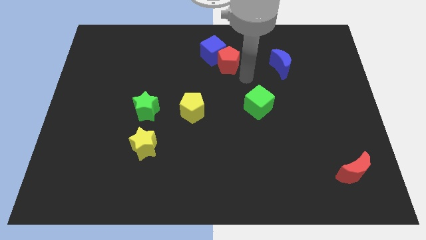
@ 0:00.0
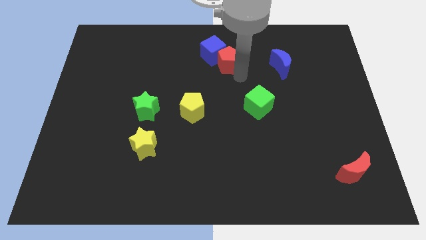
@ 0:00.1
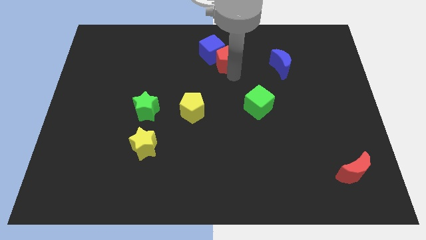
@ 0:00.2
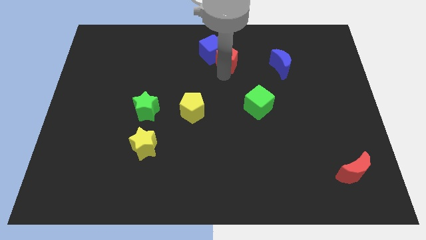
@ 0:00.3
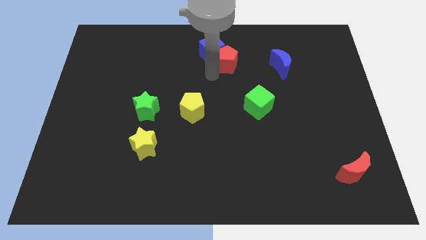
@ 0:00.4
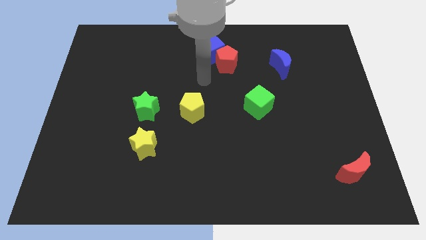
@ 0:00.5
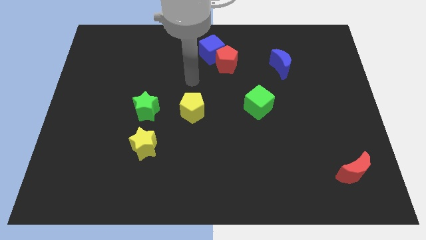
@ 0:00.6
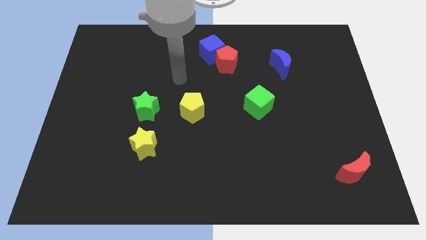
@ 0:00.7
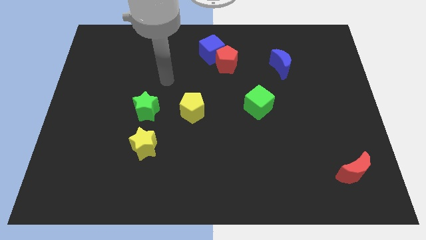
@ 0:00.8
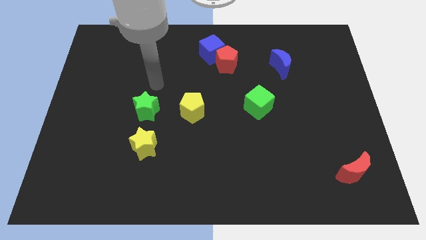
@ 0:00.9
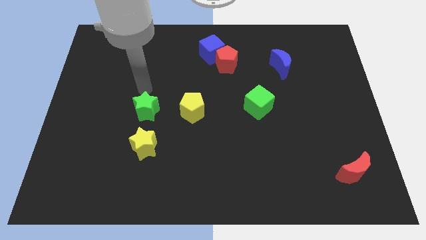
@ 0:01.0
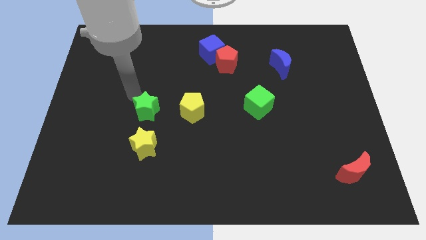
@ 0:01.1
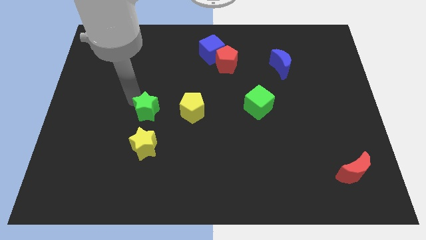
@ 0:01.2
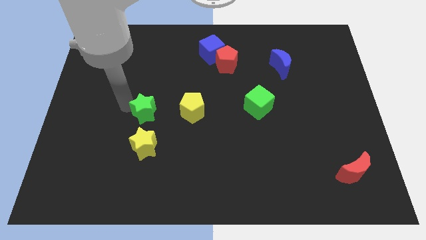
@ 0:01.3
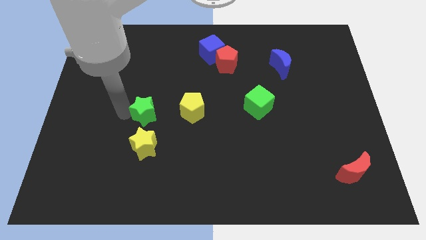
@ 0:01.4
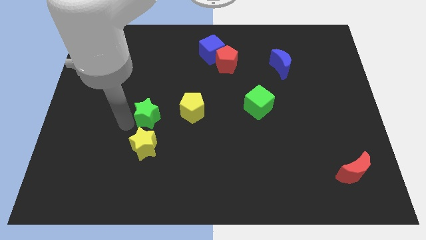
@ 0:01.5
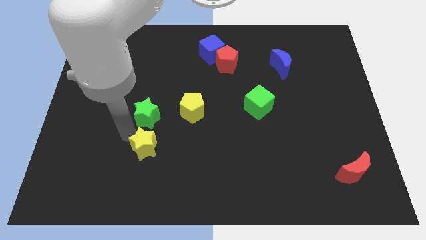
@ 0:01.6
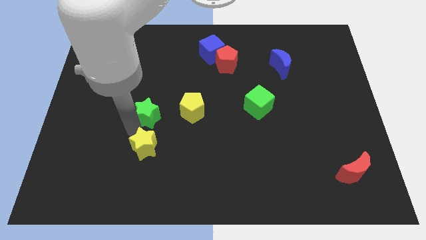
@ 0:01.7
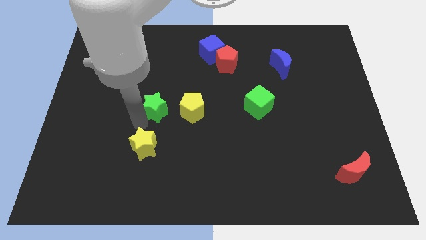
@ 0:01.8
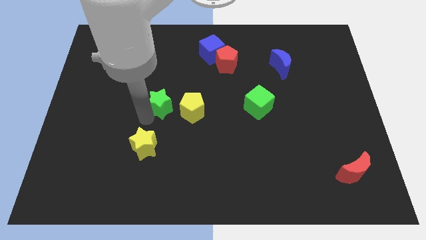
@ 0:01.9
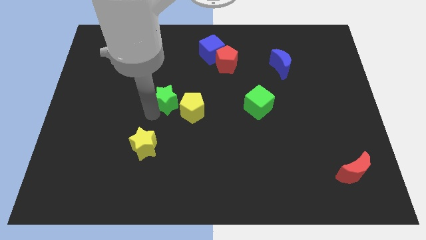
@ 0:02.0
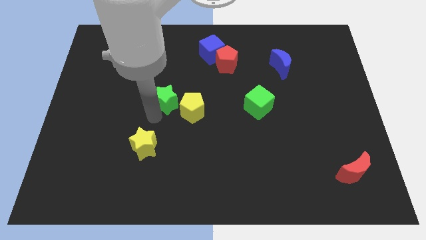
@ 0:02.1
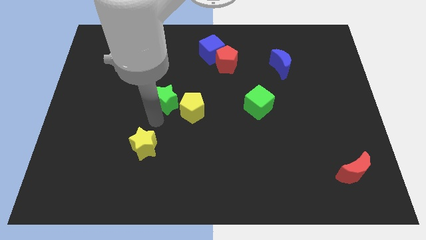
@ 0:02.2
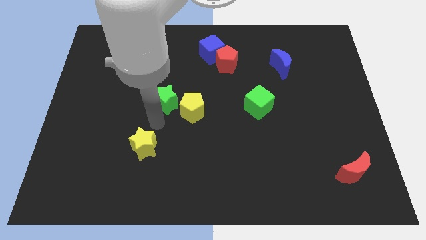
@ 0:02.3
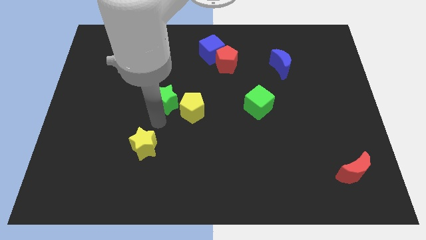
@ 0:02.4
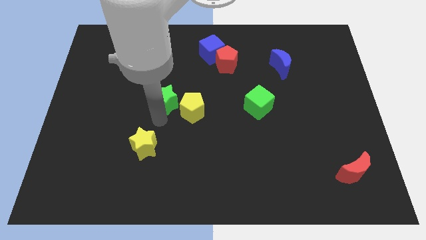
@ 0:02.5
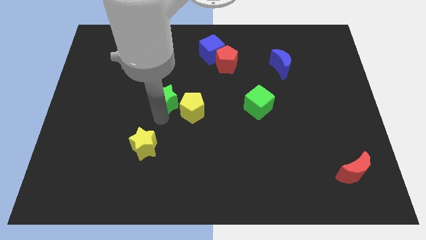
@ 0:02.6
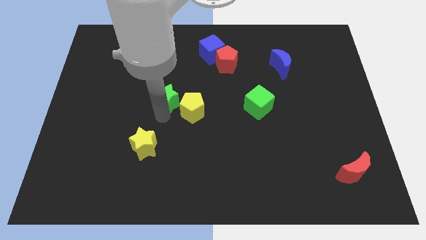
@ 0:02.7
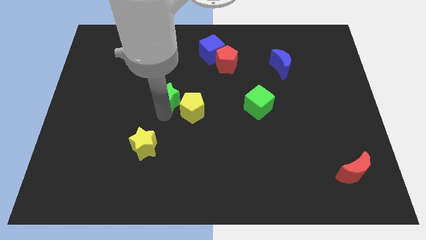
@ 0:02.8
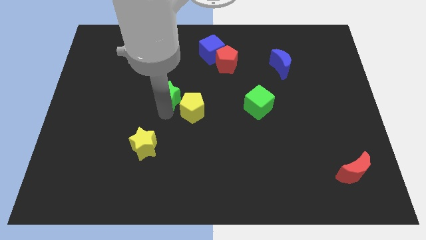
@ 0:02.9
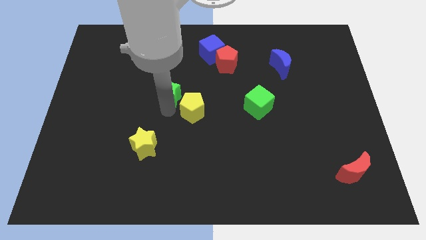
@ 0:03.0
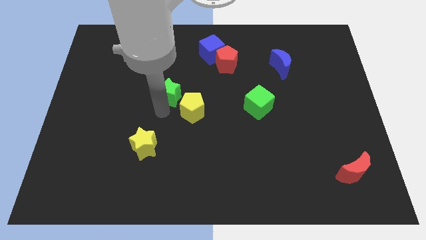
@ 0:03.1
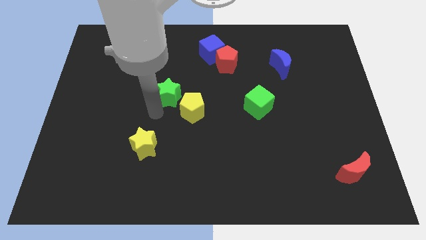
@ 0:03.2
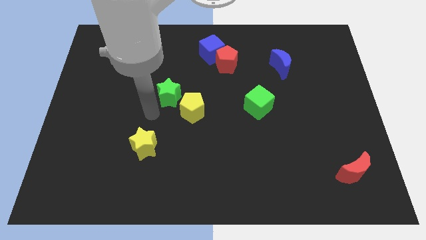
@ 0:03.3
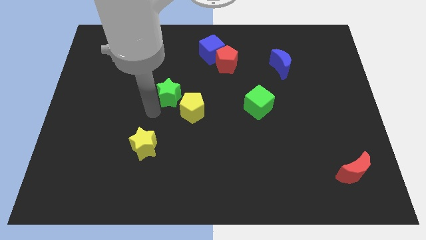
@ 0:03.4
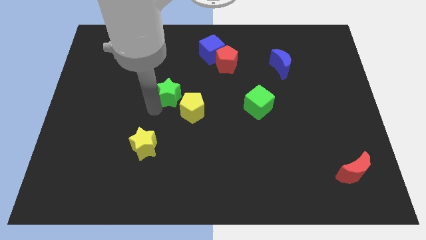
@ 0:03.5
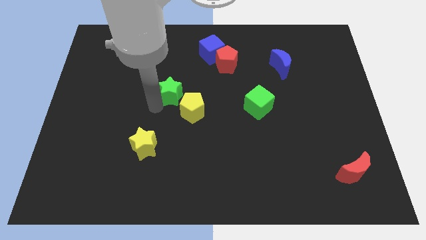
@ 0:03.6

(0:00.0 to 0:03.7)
slightly slide the green star up and right

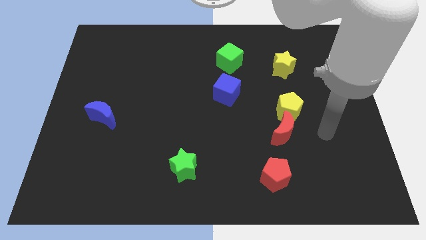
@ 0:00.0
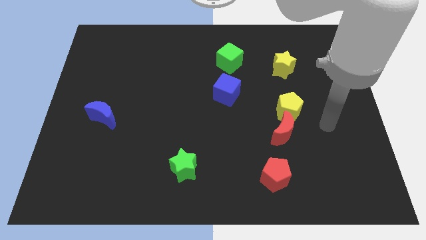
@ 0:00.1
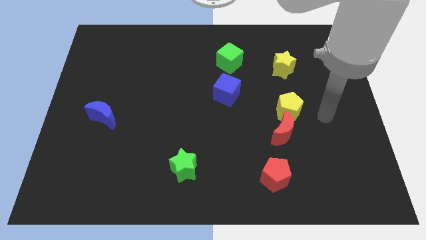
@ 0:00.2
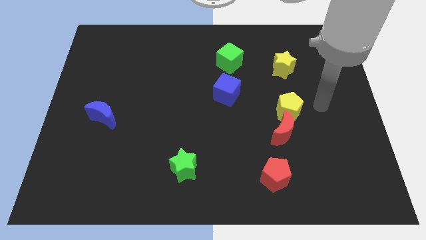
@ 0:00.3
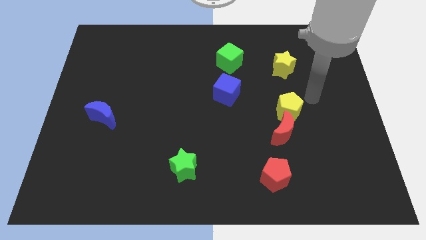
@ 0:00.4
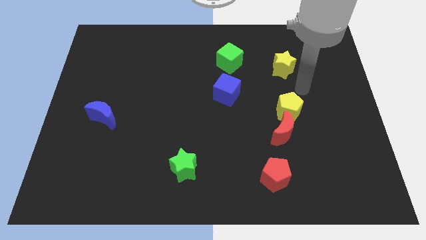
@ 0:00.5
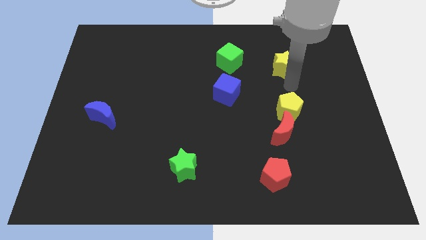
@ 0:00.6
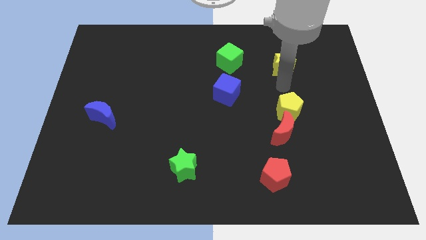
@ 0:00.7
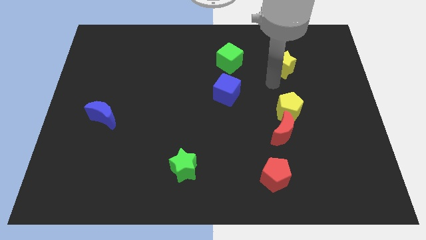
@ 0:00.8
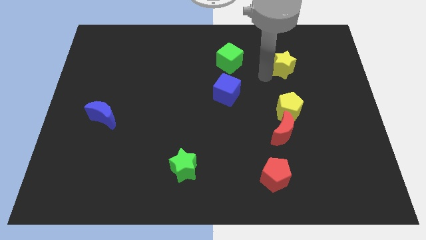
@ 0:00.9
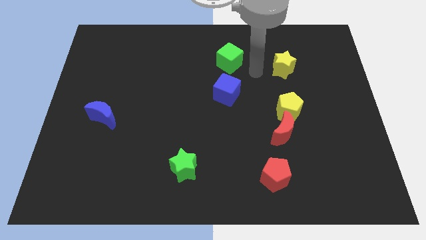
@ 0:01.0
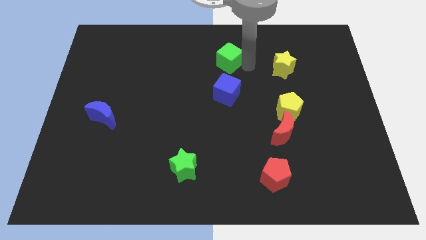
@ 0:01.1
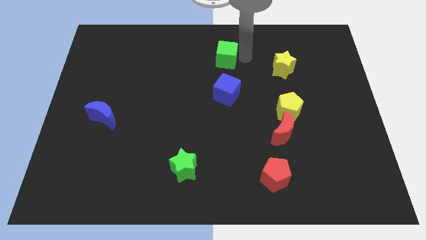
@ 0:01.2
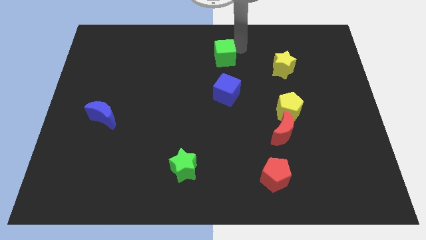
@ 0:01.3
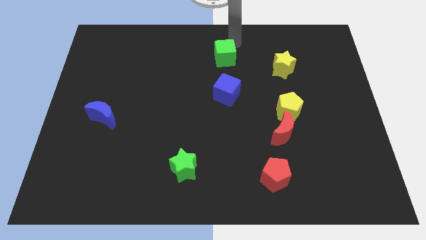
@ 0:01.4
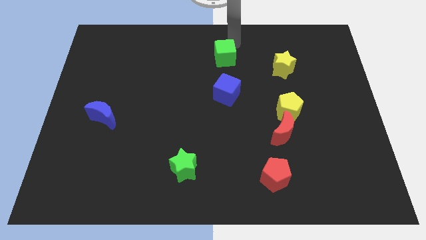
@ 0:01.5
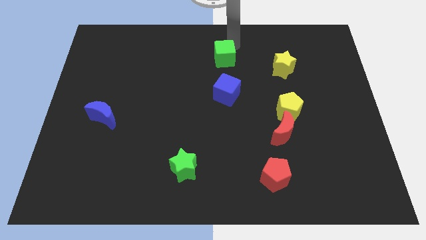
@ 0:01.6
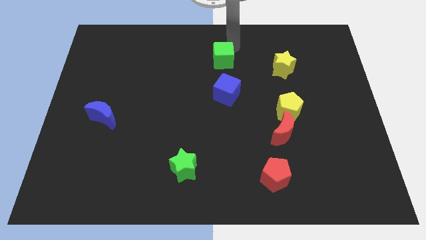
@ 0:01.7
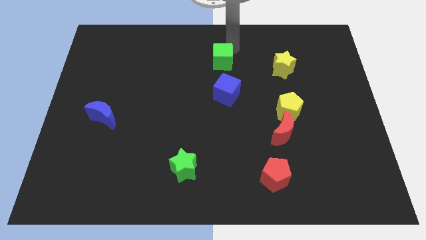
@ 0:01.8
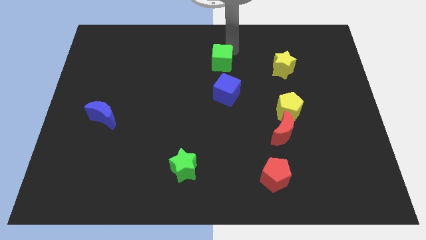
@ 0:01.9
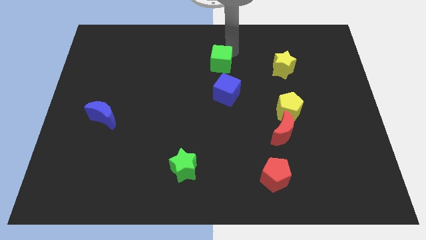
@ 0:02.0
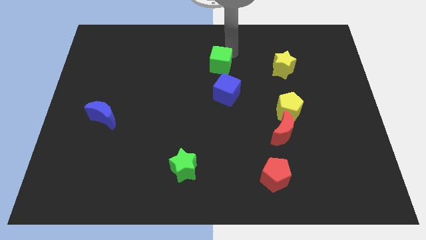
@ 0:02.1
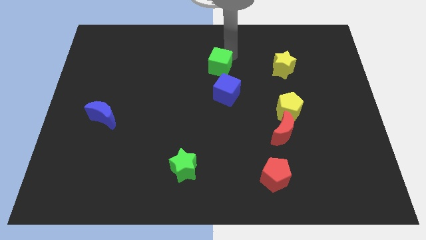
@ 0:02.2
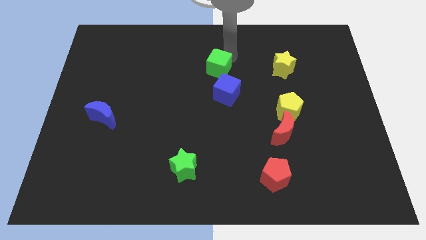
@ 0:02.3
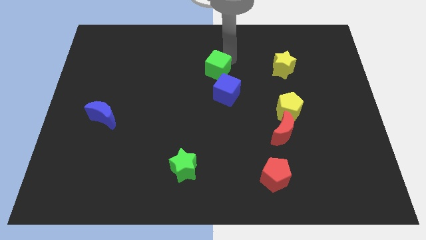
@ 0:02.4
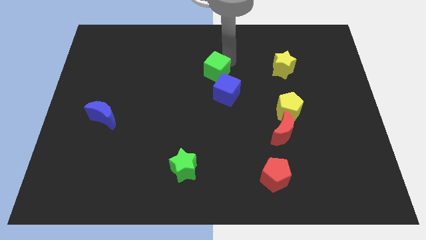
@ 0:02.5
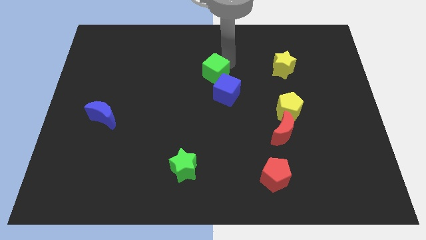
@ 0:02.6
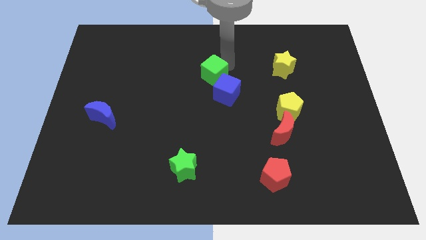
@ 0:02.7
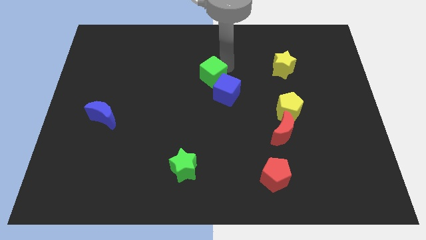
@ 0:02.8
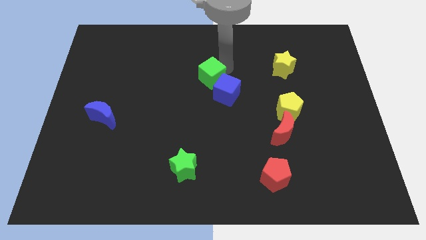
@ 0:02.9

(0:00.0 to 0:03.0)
slightly move the green cube down and then left

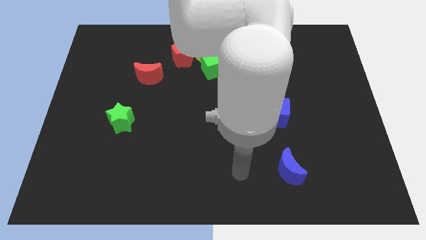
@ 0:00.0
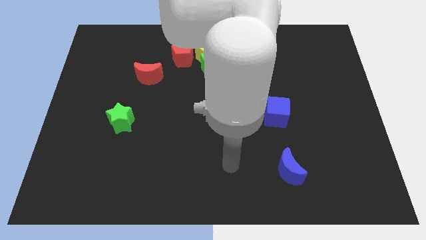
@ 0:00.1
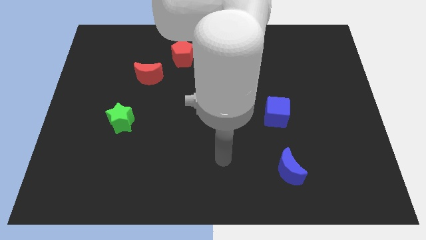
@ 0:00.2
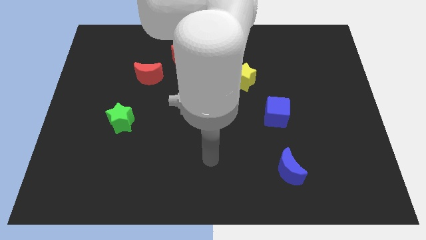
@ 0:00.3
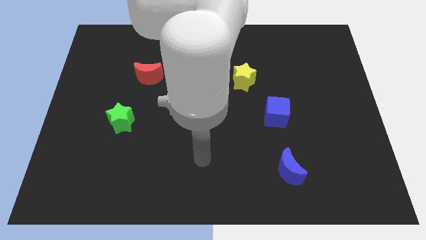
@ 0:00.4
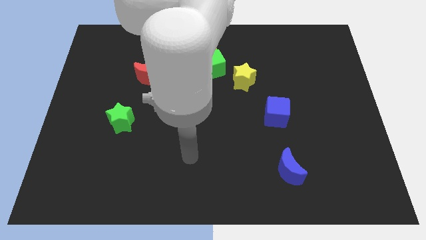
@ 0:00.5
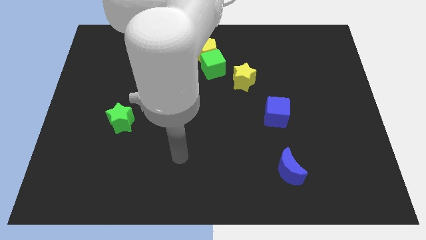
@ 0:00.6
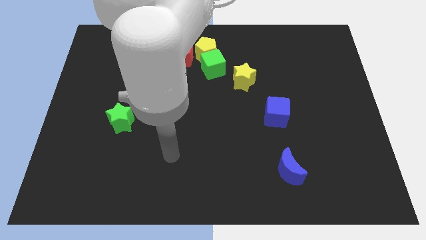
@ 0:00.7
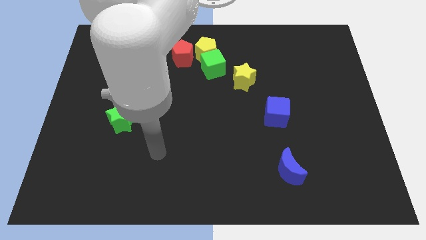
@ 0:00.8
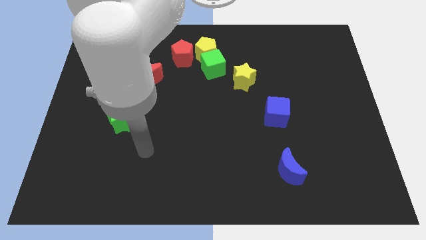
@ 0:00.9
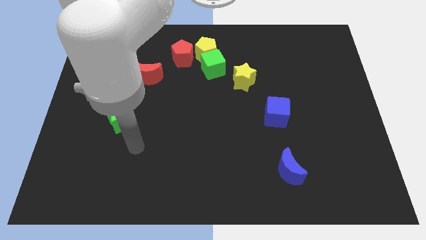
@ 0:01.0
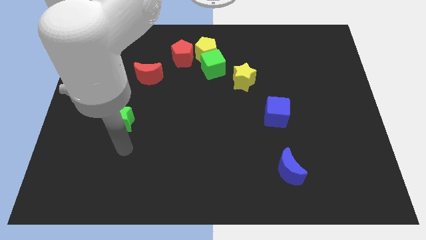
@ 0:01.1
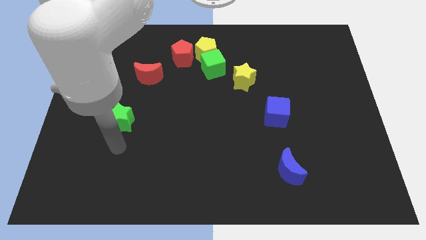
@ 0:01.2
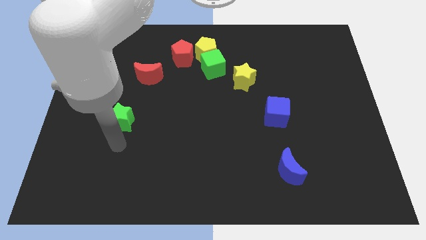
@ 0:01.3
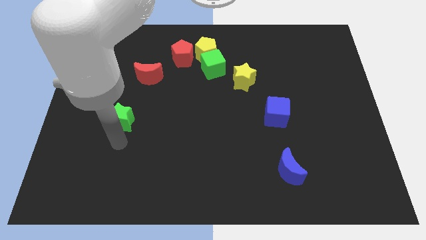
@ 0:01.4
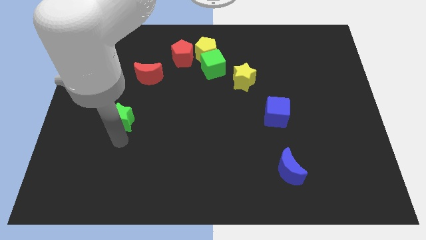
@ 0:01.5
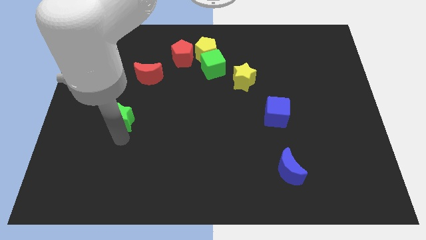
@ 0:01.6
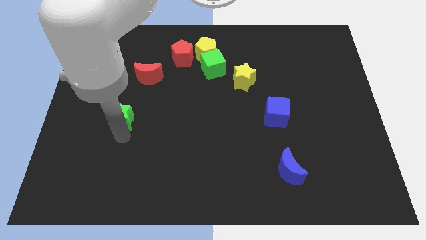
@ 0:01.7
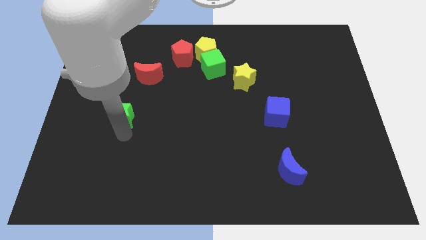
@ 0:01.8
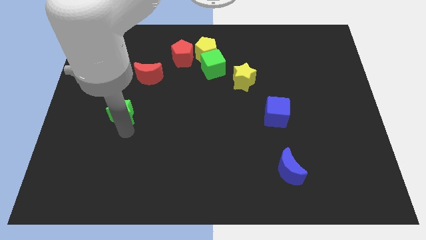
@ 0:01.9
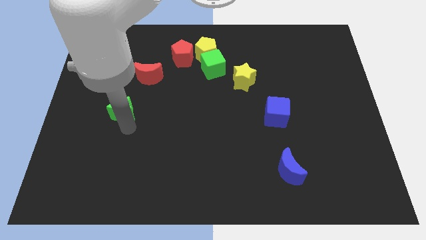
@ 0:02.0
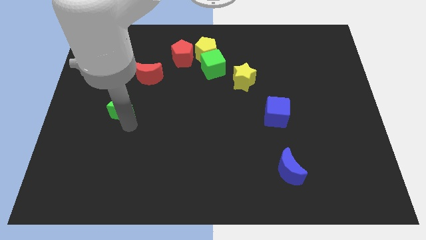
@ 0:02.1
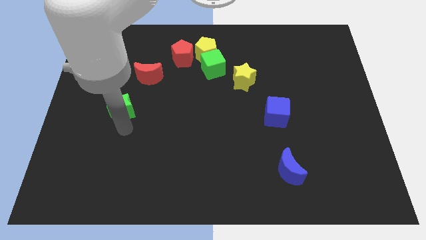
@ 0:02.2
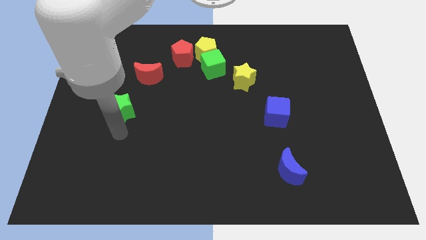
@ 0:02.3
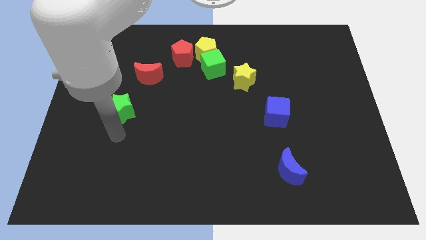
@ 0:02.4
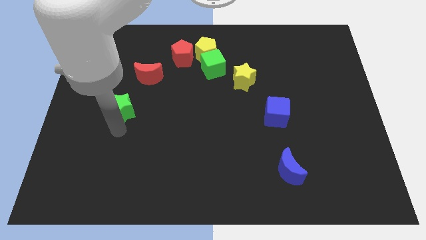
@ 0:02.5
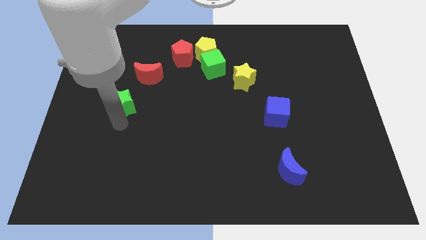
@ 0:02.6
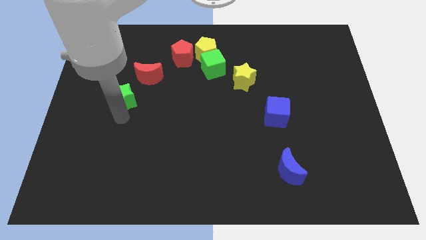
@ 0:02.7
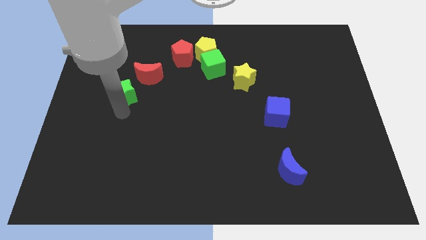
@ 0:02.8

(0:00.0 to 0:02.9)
move the green star up a little
